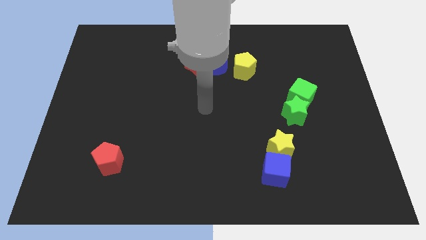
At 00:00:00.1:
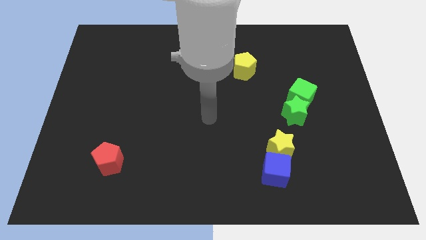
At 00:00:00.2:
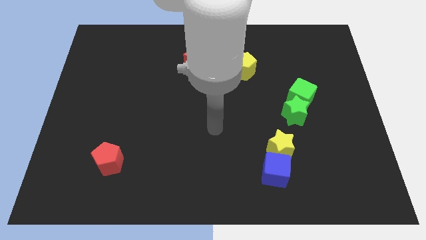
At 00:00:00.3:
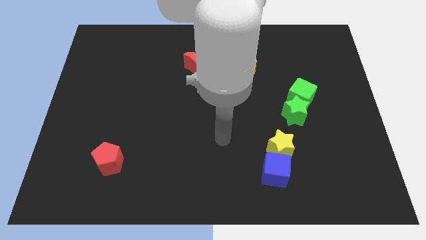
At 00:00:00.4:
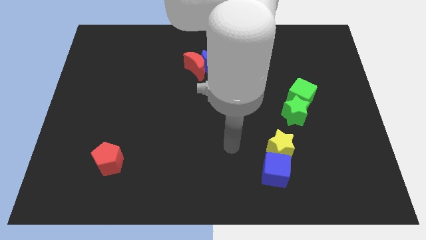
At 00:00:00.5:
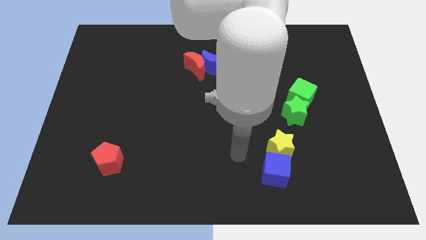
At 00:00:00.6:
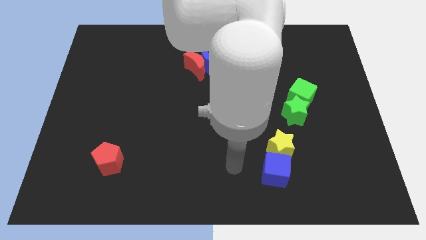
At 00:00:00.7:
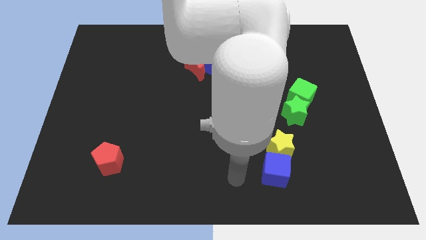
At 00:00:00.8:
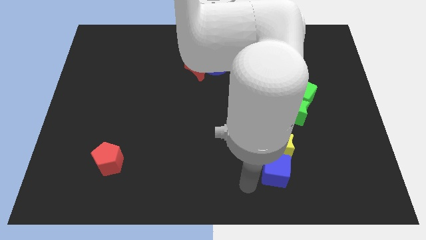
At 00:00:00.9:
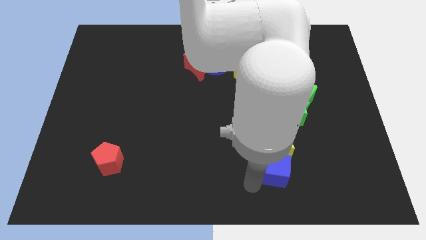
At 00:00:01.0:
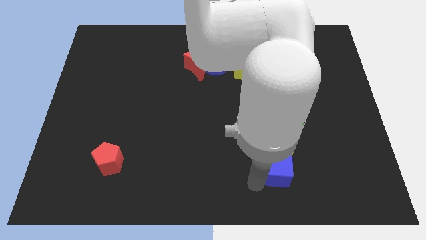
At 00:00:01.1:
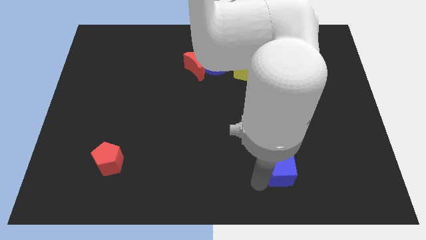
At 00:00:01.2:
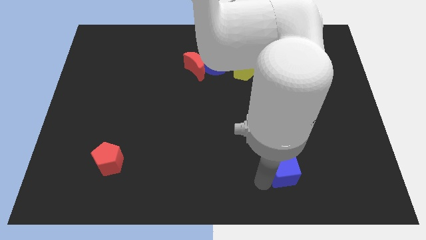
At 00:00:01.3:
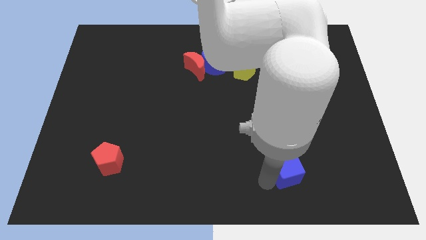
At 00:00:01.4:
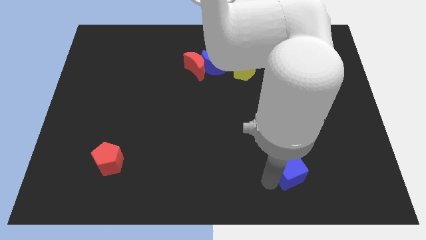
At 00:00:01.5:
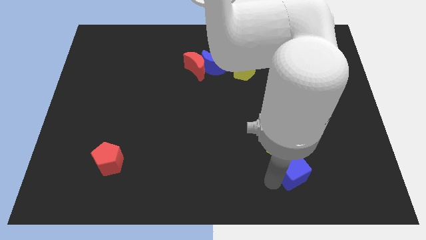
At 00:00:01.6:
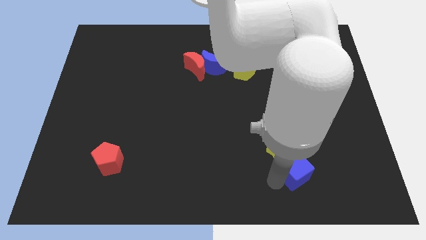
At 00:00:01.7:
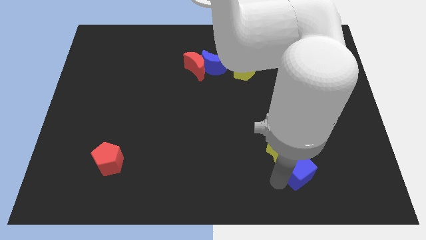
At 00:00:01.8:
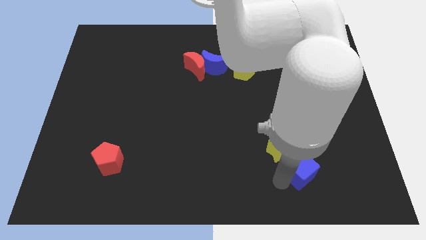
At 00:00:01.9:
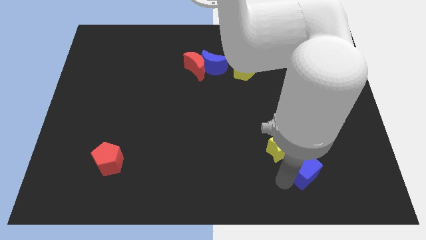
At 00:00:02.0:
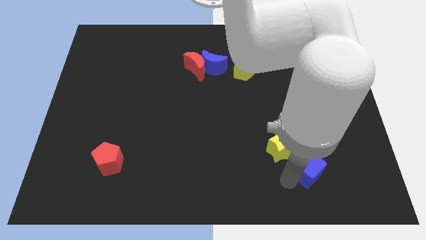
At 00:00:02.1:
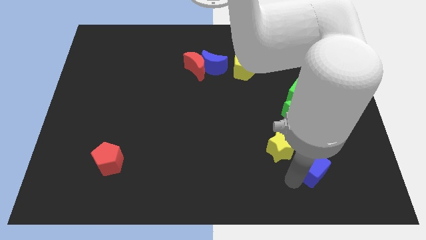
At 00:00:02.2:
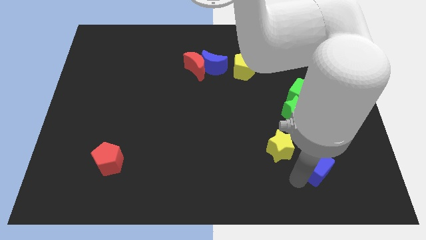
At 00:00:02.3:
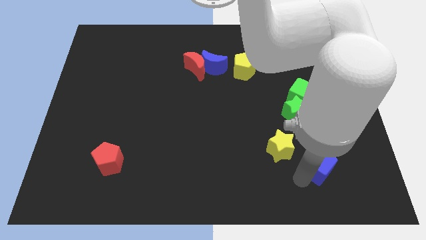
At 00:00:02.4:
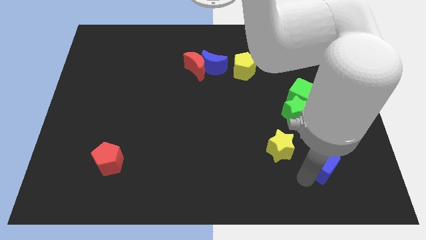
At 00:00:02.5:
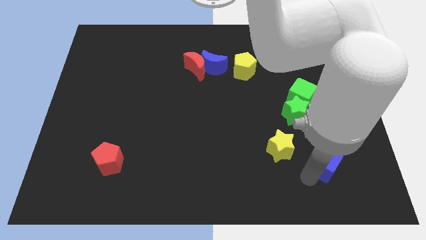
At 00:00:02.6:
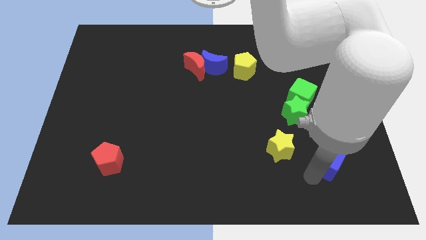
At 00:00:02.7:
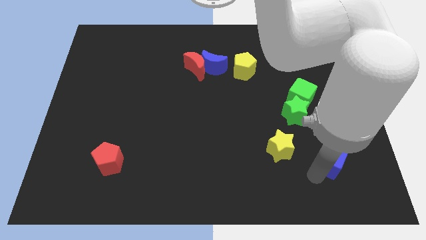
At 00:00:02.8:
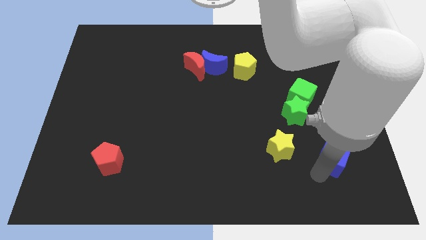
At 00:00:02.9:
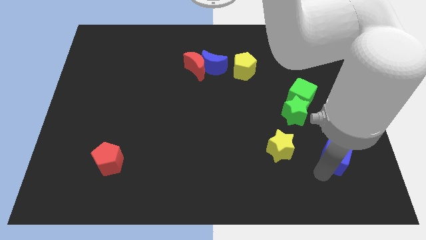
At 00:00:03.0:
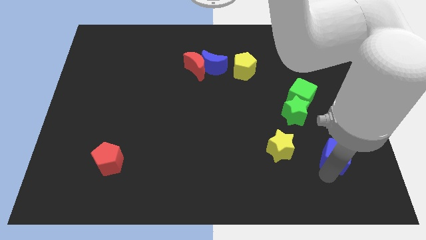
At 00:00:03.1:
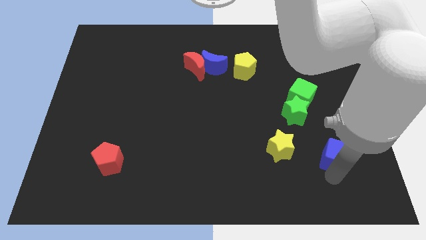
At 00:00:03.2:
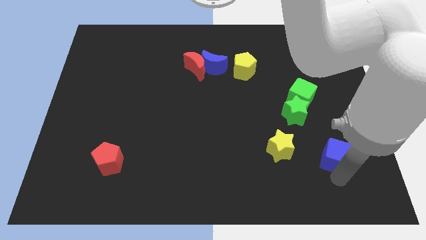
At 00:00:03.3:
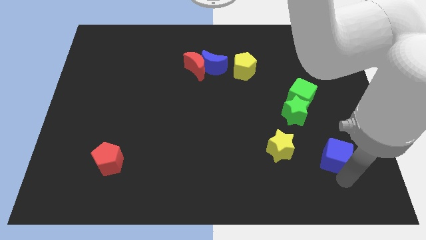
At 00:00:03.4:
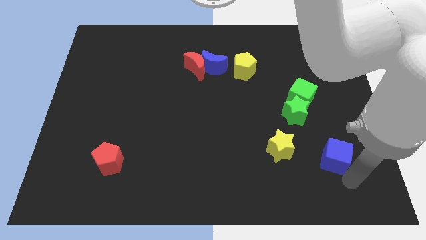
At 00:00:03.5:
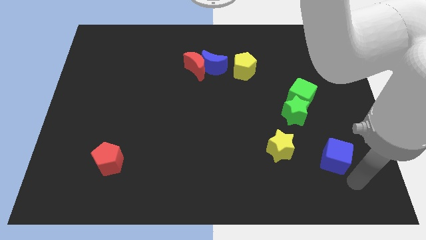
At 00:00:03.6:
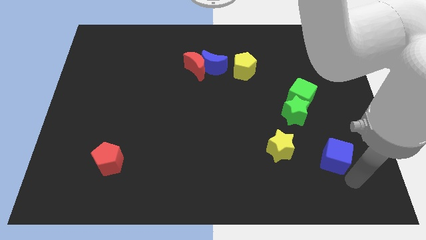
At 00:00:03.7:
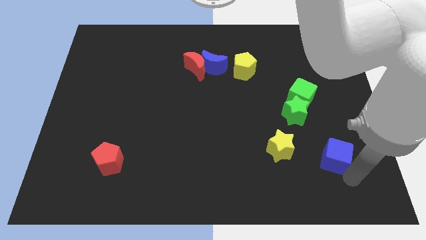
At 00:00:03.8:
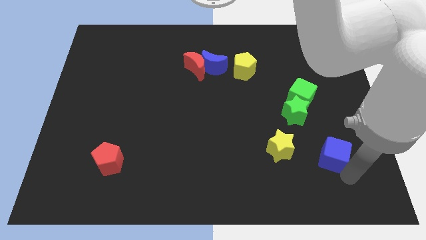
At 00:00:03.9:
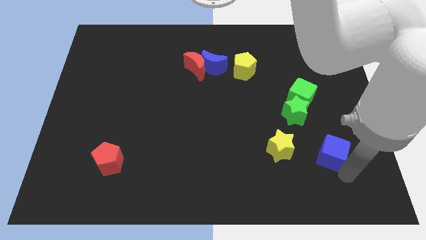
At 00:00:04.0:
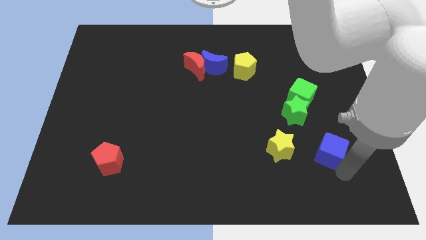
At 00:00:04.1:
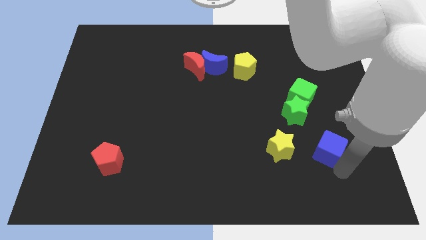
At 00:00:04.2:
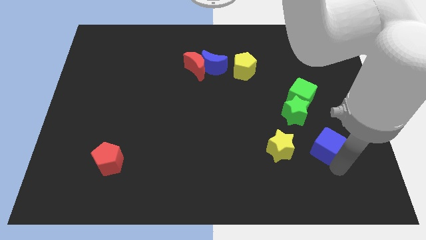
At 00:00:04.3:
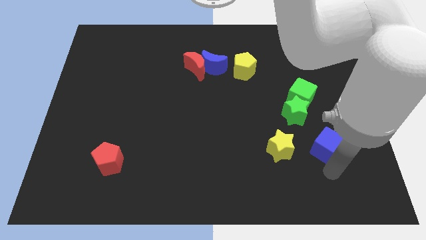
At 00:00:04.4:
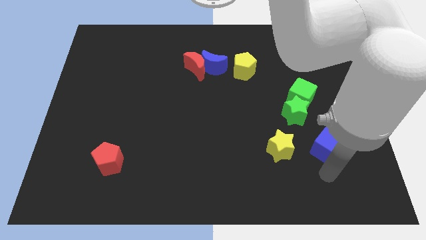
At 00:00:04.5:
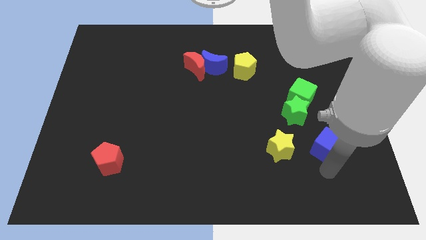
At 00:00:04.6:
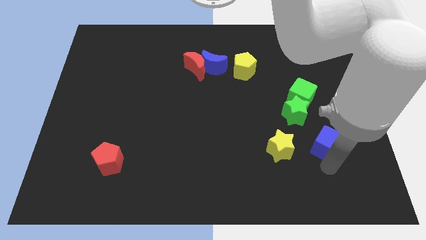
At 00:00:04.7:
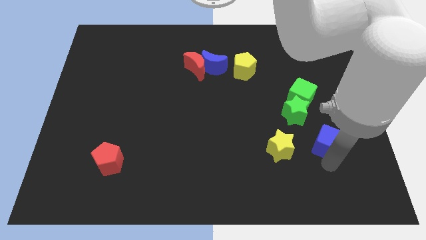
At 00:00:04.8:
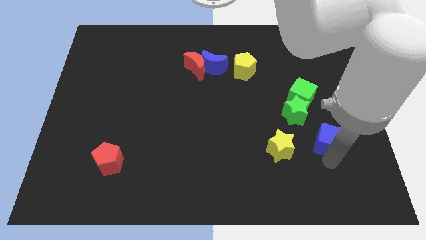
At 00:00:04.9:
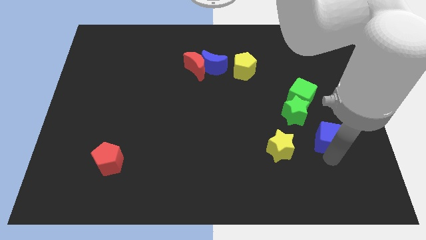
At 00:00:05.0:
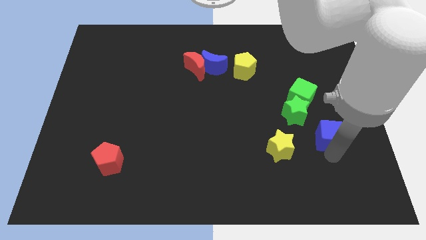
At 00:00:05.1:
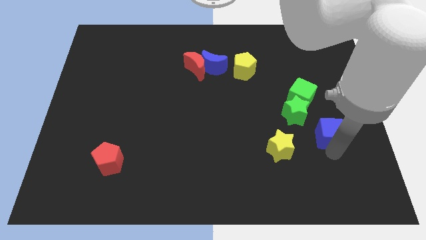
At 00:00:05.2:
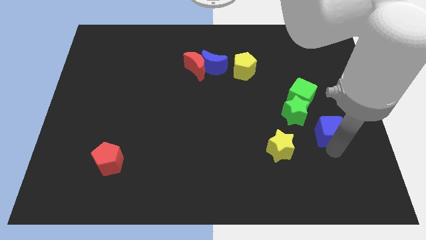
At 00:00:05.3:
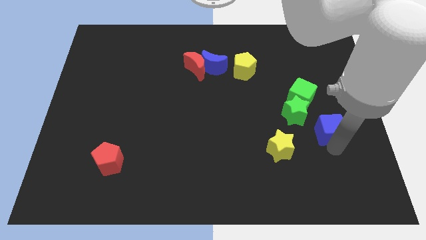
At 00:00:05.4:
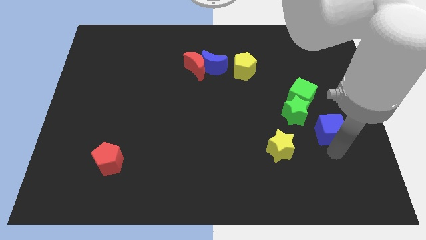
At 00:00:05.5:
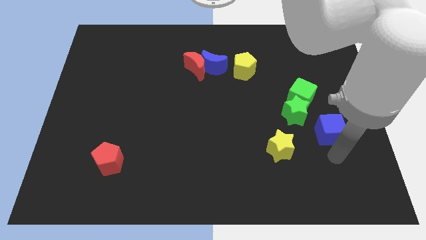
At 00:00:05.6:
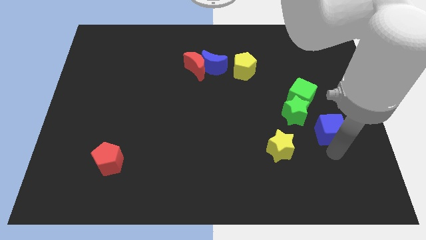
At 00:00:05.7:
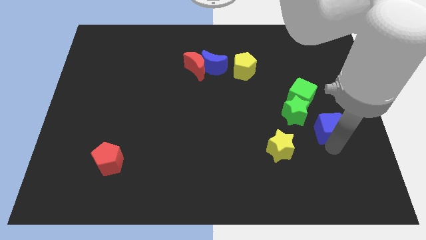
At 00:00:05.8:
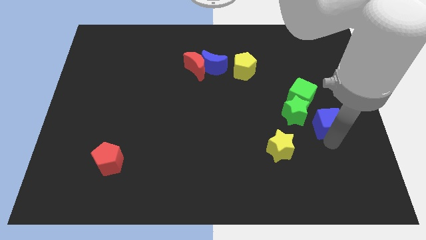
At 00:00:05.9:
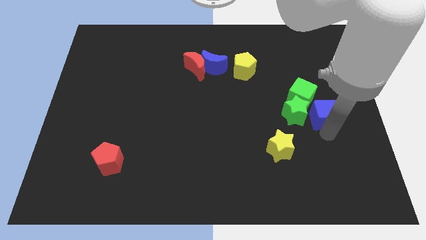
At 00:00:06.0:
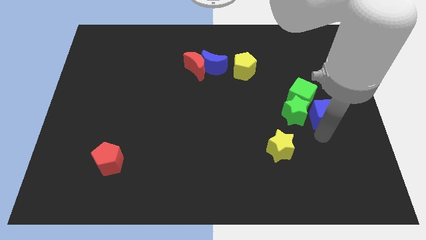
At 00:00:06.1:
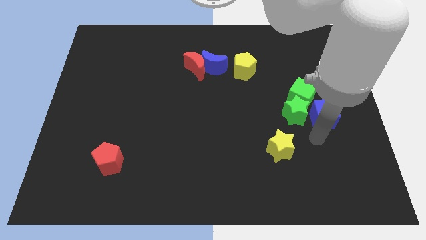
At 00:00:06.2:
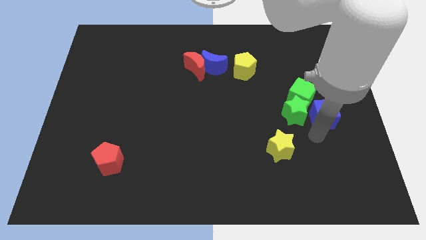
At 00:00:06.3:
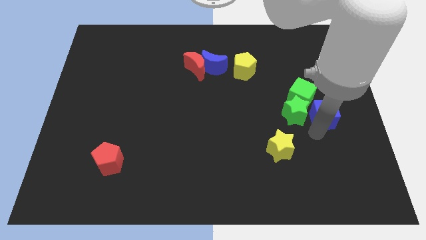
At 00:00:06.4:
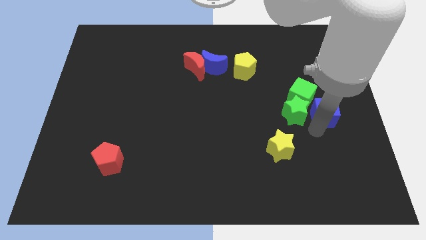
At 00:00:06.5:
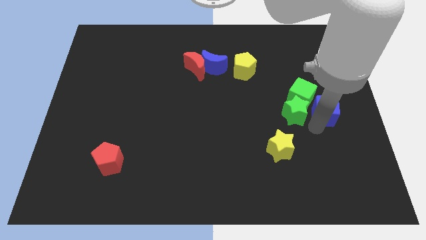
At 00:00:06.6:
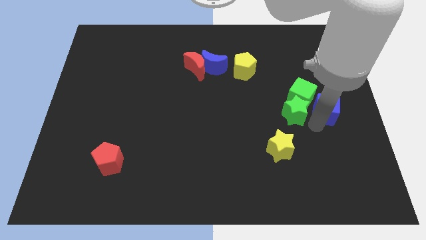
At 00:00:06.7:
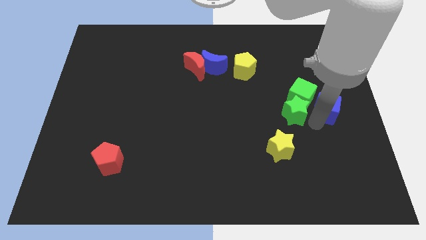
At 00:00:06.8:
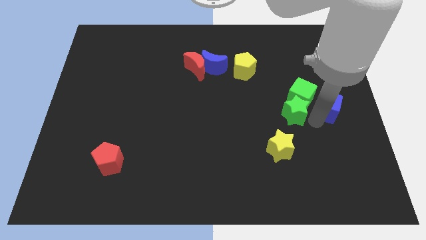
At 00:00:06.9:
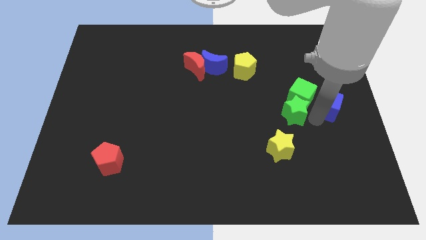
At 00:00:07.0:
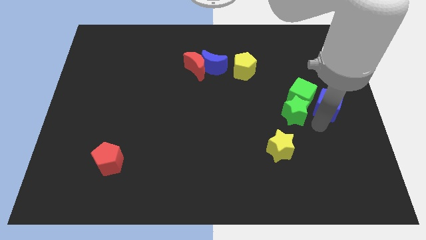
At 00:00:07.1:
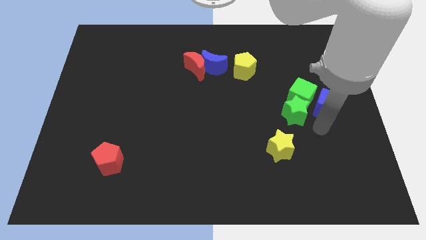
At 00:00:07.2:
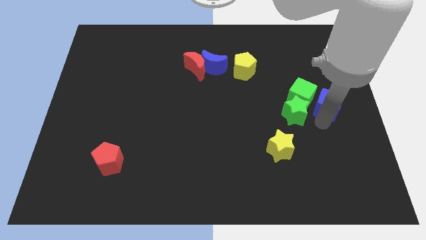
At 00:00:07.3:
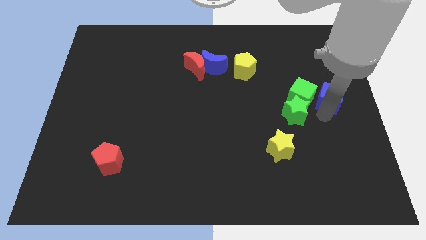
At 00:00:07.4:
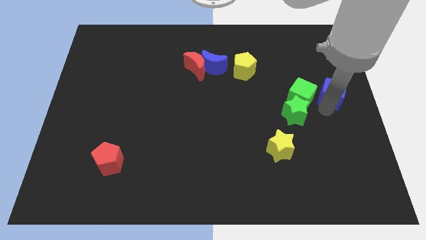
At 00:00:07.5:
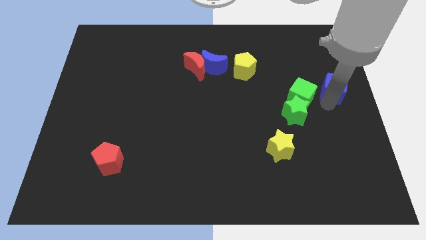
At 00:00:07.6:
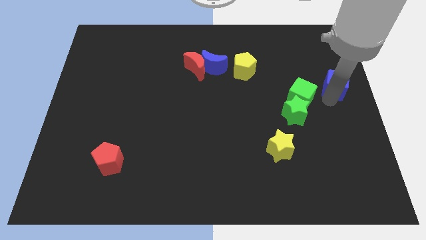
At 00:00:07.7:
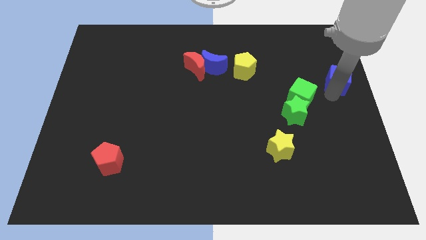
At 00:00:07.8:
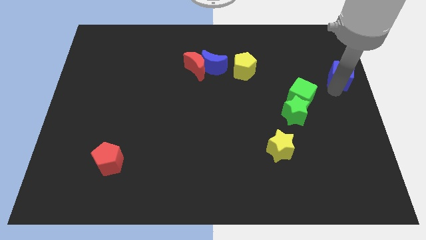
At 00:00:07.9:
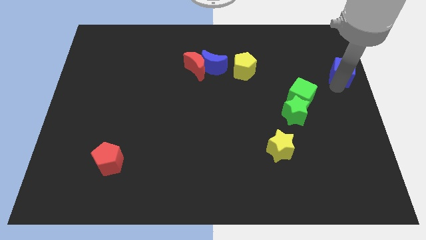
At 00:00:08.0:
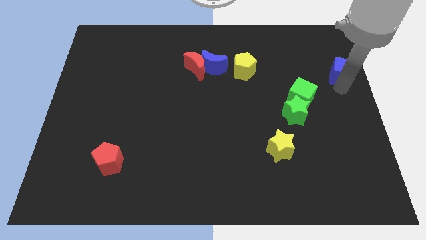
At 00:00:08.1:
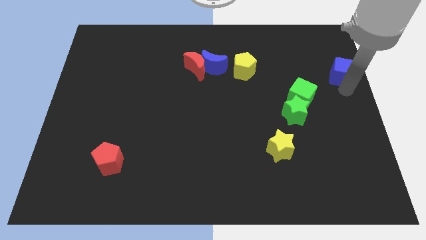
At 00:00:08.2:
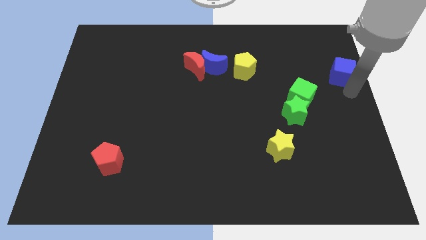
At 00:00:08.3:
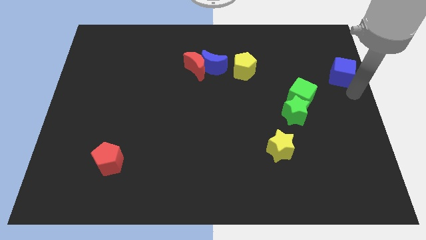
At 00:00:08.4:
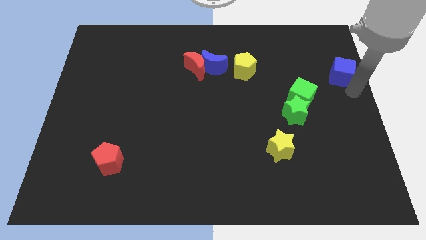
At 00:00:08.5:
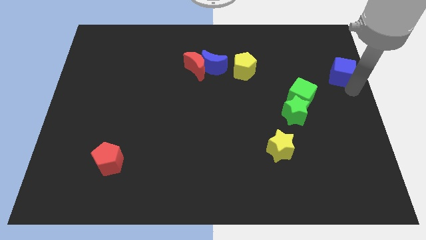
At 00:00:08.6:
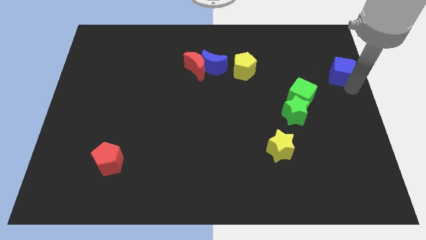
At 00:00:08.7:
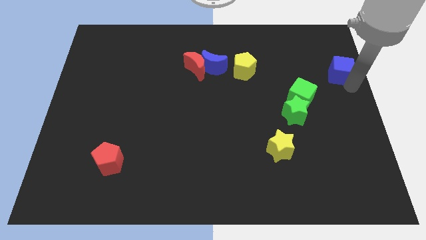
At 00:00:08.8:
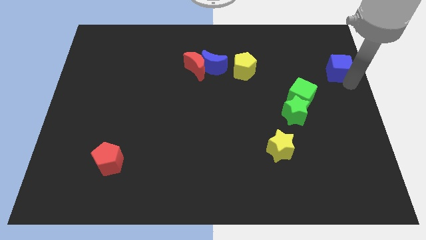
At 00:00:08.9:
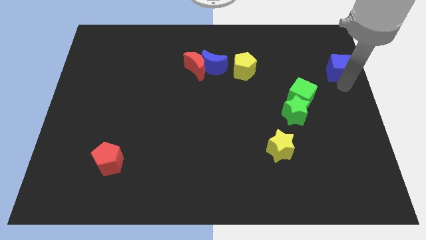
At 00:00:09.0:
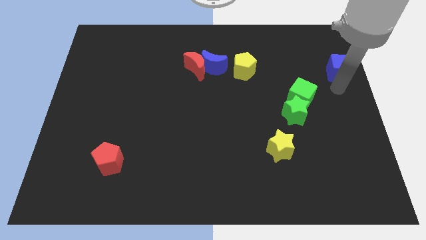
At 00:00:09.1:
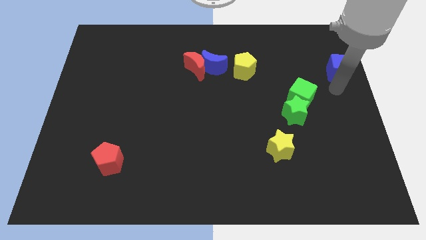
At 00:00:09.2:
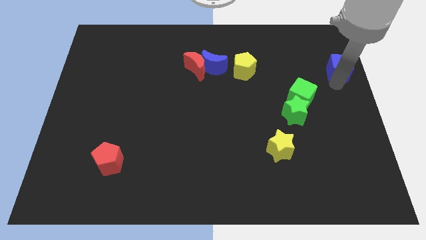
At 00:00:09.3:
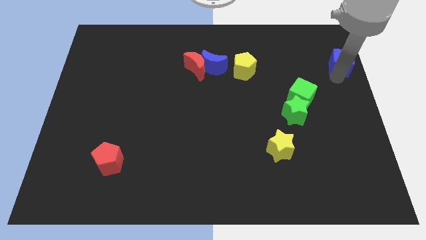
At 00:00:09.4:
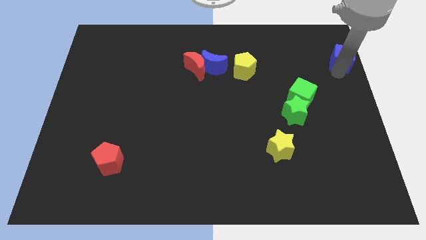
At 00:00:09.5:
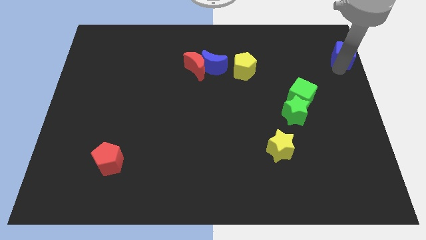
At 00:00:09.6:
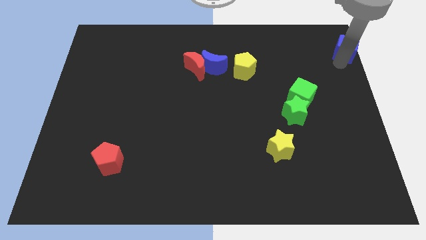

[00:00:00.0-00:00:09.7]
push the blue cube to the top right of the board
